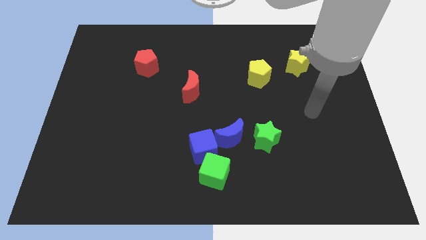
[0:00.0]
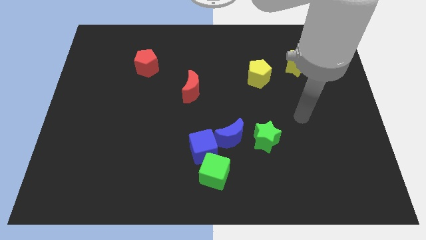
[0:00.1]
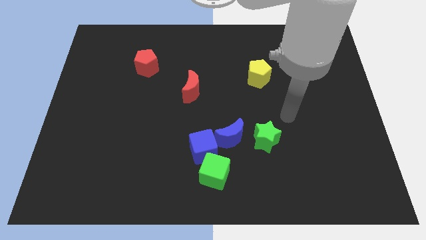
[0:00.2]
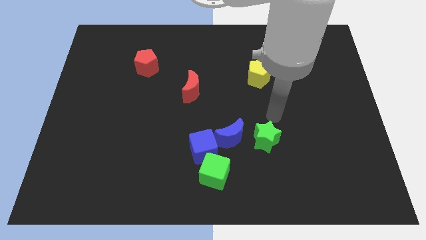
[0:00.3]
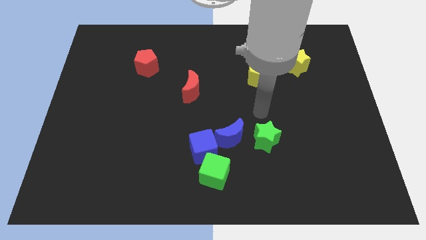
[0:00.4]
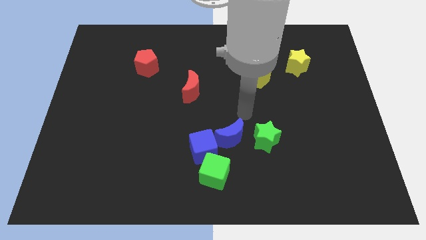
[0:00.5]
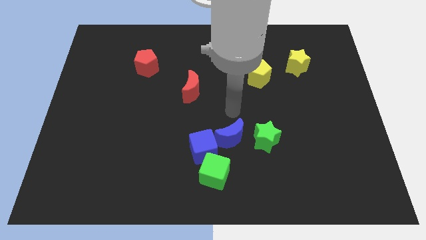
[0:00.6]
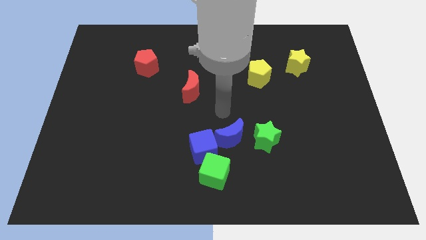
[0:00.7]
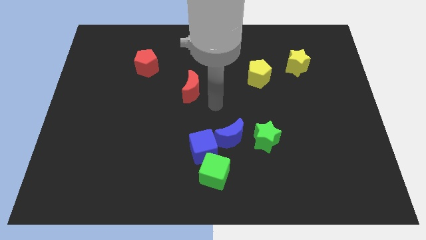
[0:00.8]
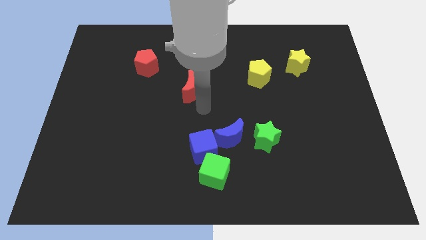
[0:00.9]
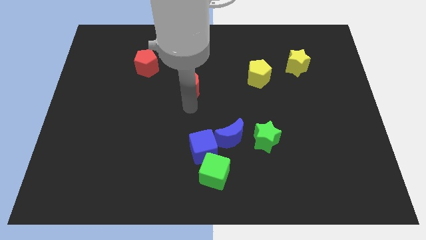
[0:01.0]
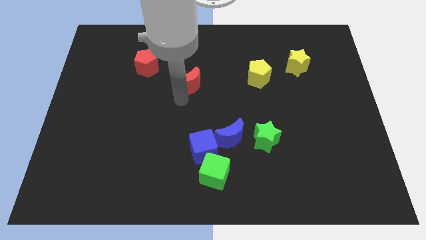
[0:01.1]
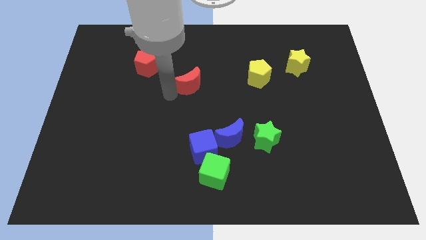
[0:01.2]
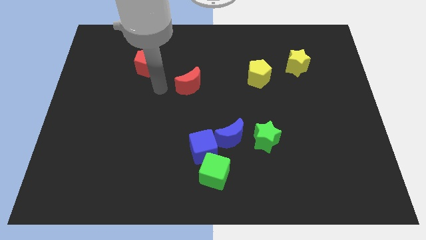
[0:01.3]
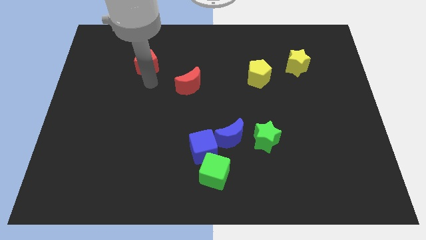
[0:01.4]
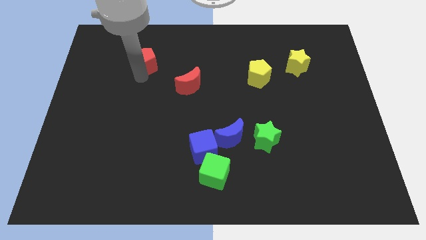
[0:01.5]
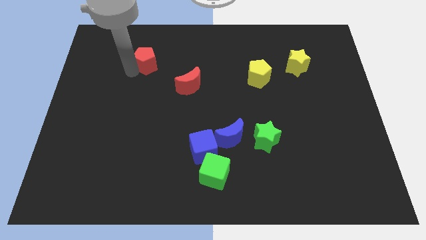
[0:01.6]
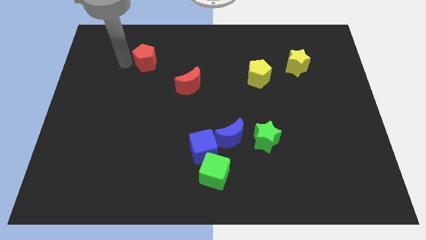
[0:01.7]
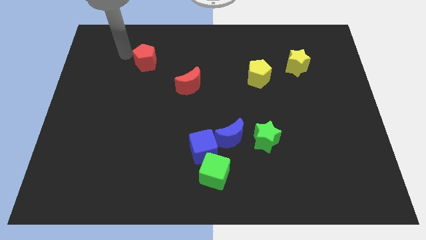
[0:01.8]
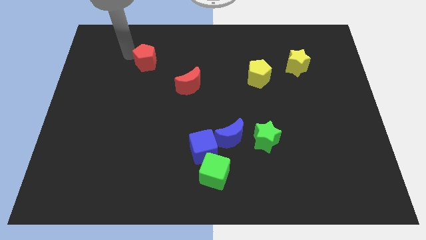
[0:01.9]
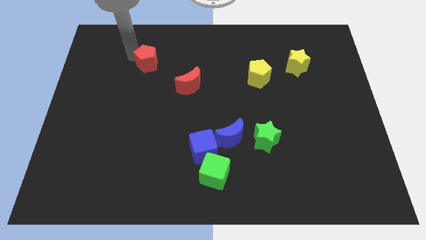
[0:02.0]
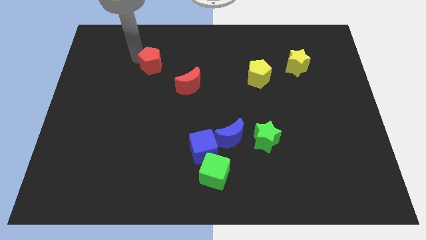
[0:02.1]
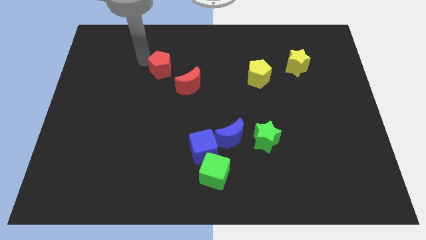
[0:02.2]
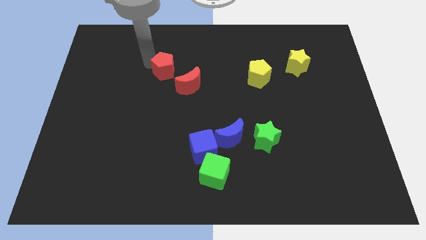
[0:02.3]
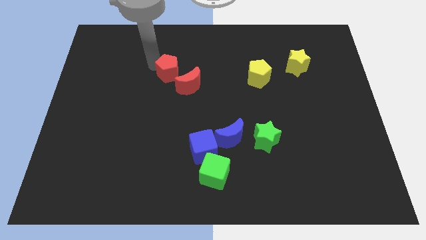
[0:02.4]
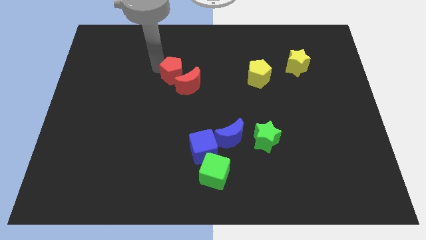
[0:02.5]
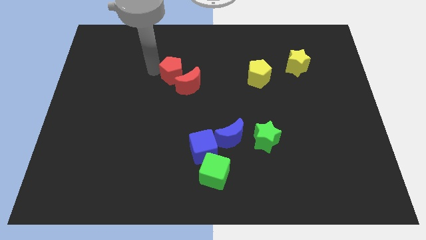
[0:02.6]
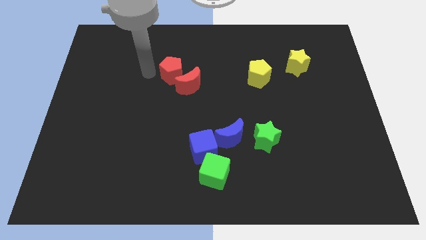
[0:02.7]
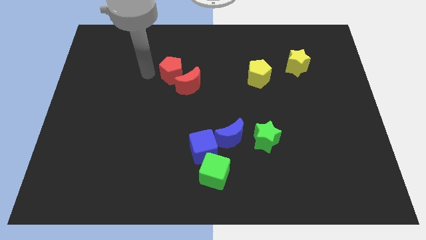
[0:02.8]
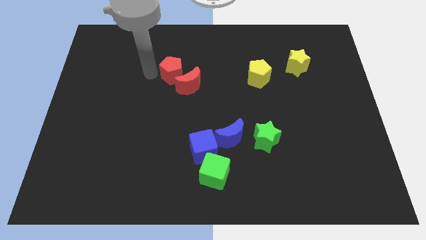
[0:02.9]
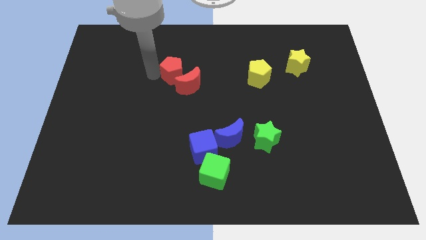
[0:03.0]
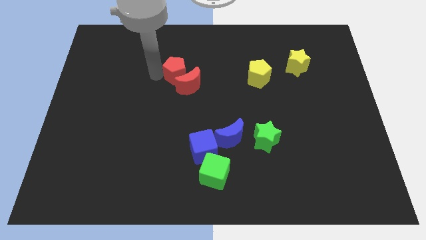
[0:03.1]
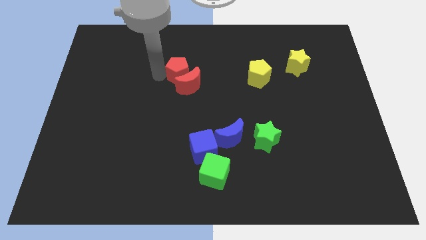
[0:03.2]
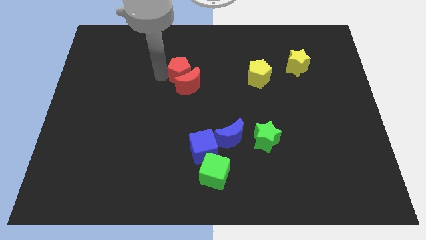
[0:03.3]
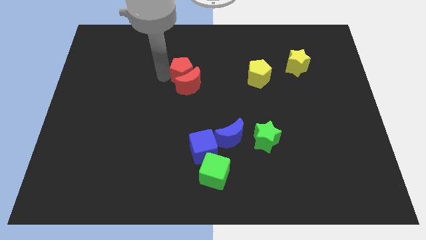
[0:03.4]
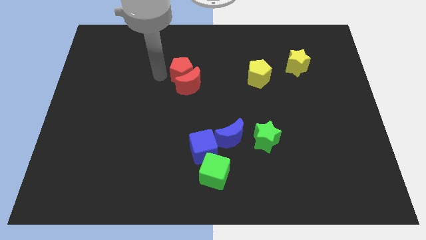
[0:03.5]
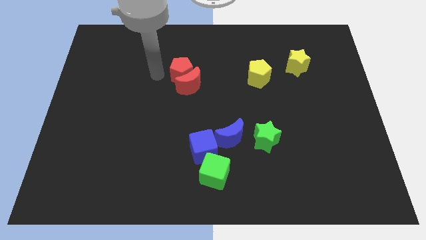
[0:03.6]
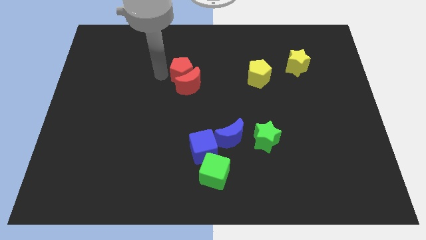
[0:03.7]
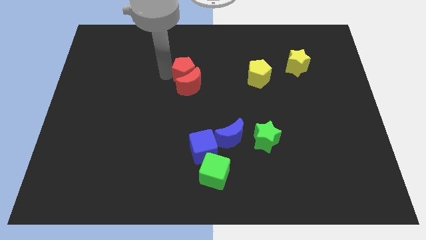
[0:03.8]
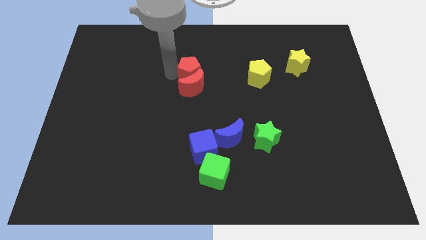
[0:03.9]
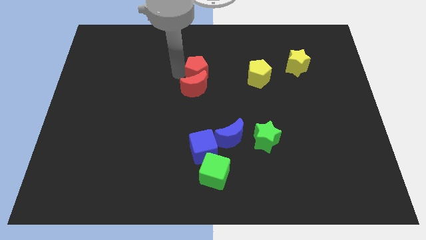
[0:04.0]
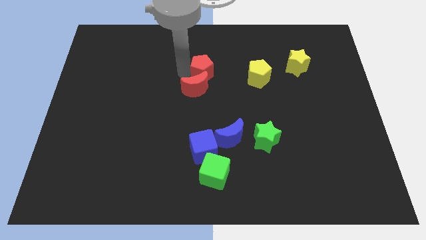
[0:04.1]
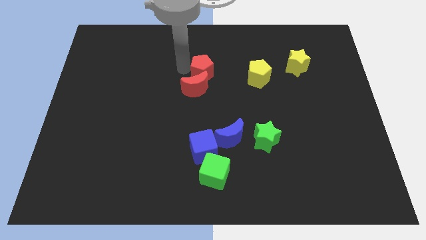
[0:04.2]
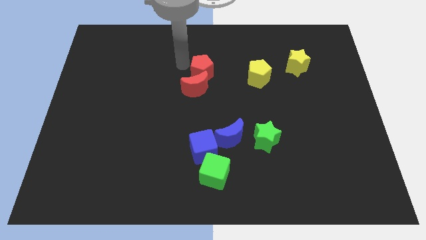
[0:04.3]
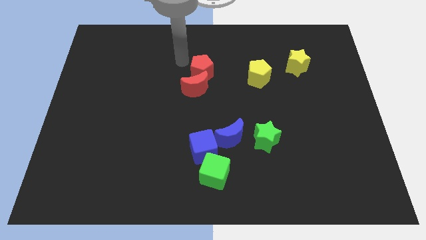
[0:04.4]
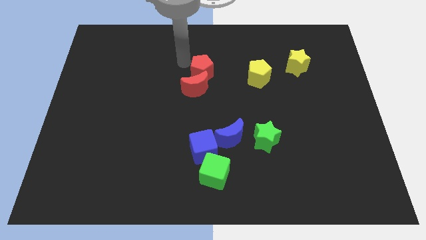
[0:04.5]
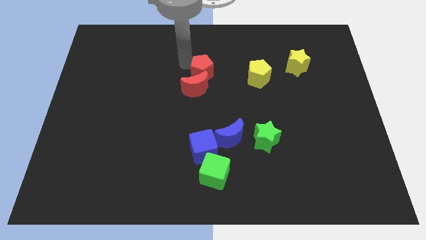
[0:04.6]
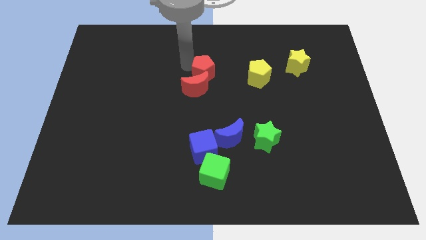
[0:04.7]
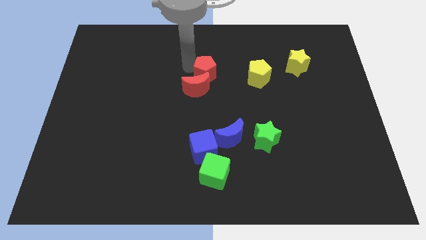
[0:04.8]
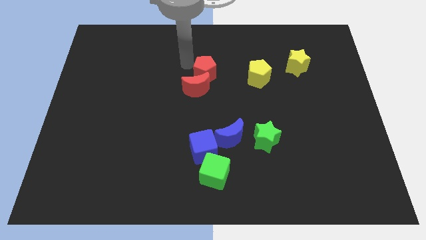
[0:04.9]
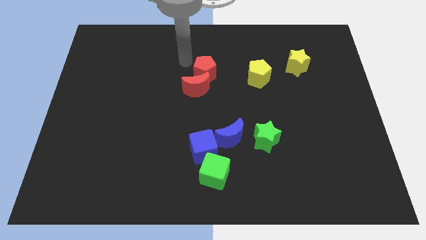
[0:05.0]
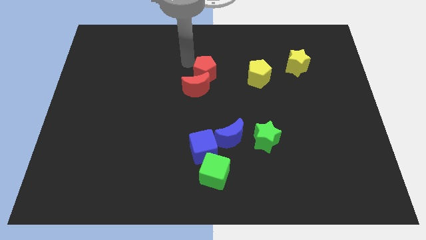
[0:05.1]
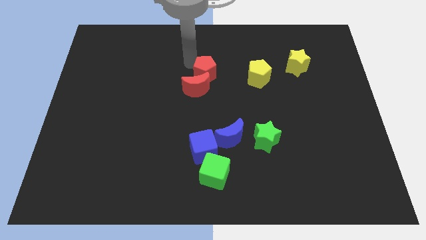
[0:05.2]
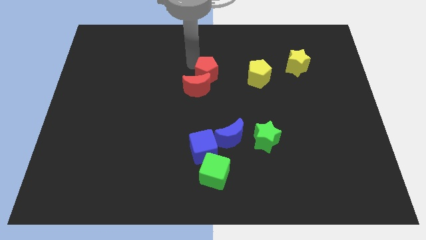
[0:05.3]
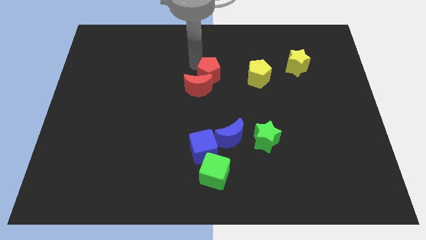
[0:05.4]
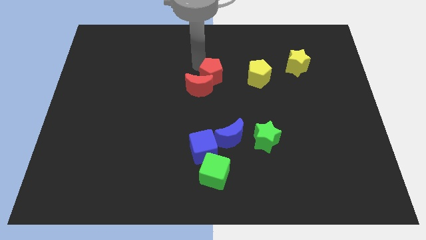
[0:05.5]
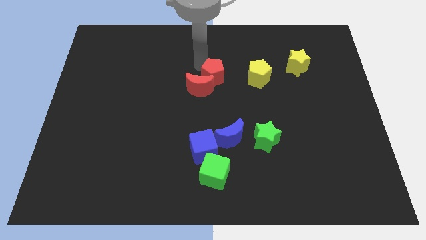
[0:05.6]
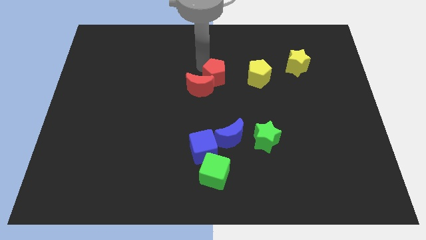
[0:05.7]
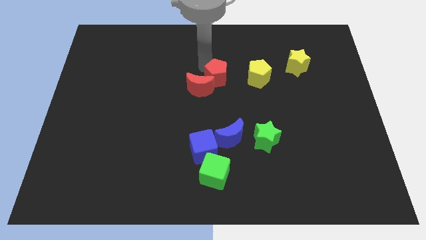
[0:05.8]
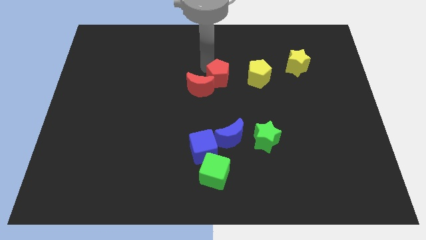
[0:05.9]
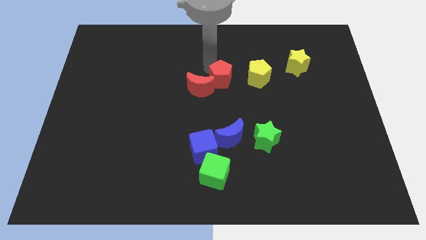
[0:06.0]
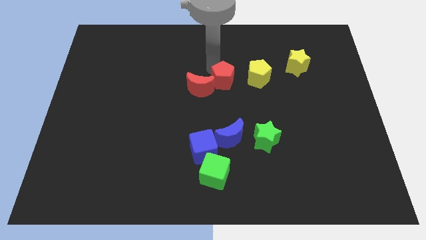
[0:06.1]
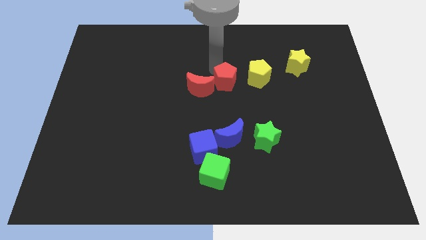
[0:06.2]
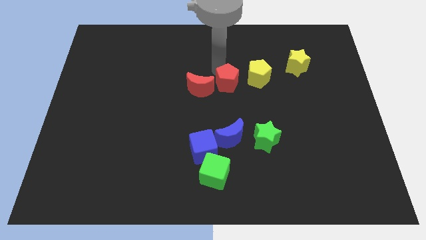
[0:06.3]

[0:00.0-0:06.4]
put the red pentagon to the bottom left side of the yellow pentagon
